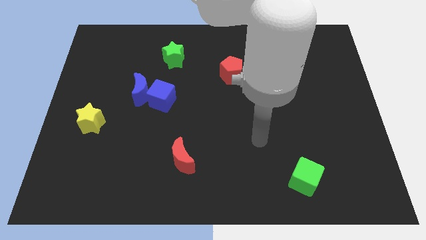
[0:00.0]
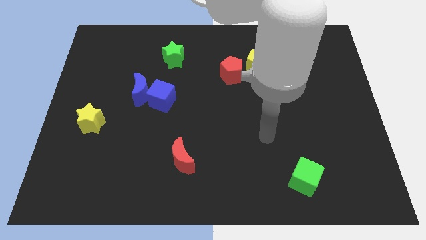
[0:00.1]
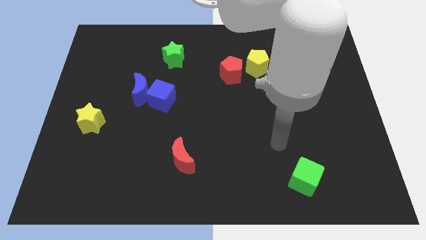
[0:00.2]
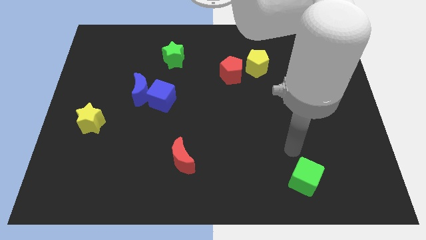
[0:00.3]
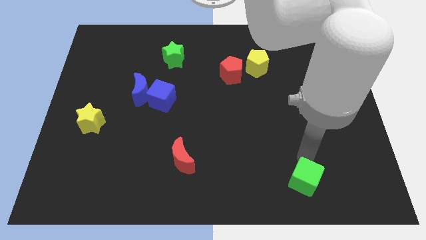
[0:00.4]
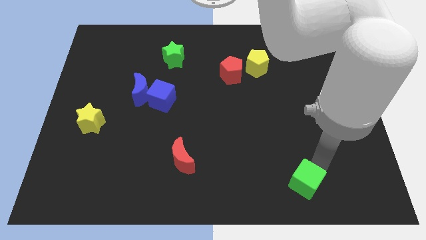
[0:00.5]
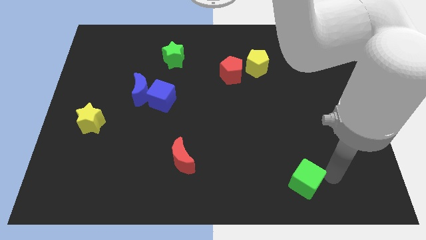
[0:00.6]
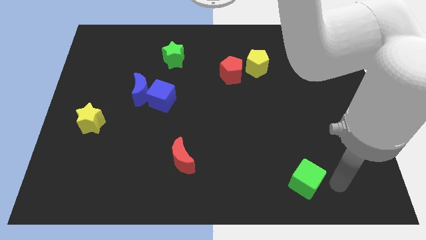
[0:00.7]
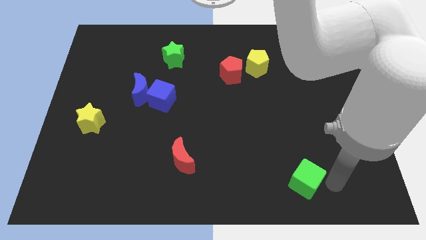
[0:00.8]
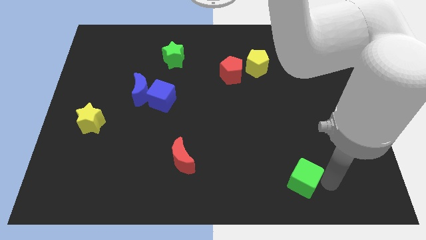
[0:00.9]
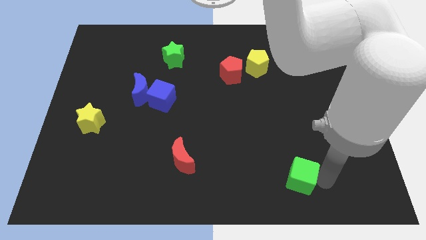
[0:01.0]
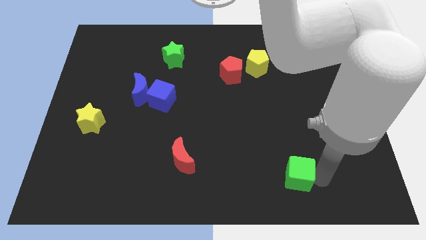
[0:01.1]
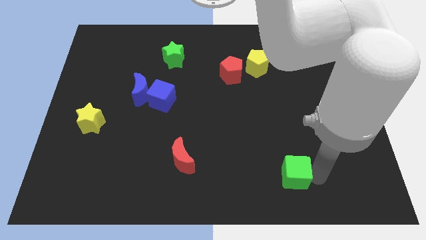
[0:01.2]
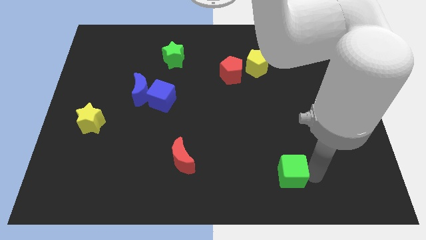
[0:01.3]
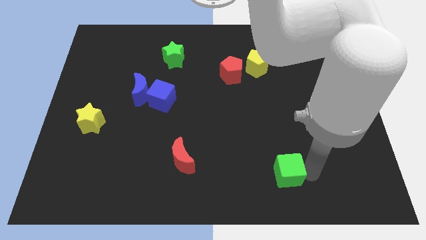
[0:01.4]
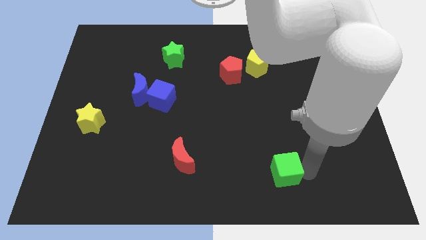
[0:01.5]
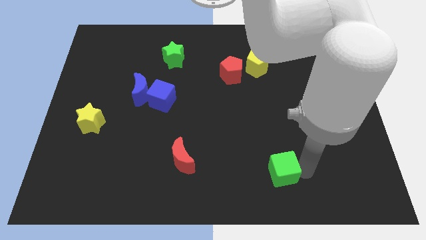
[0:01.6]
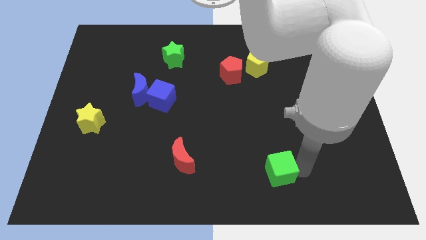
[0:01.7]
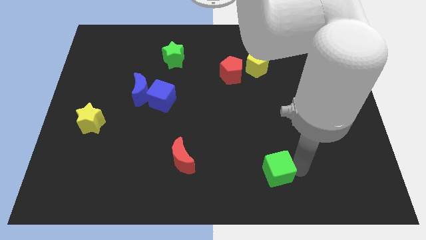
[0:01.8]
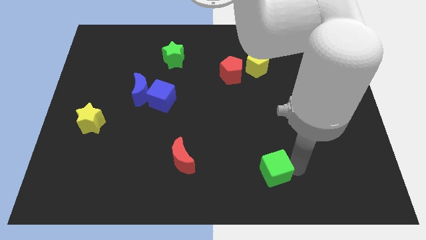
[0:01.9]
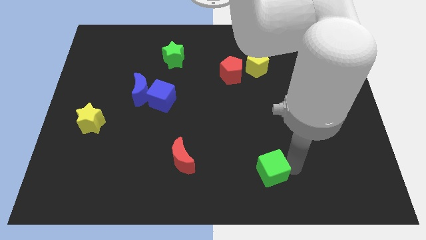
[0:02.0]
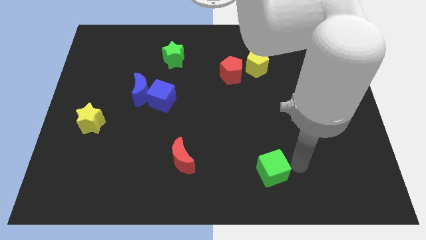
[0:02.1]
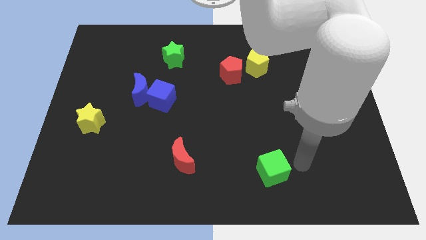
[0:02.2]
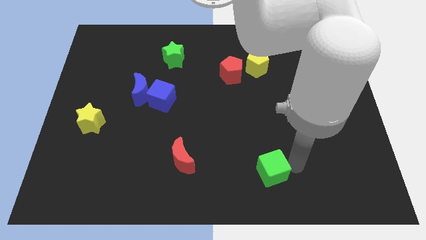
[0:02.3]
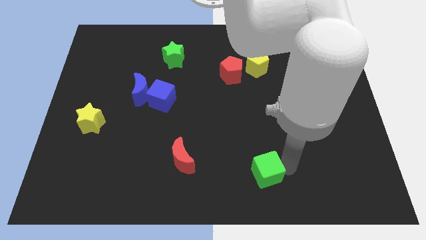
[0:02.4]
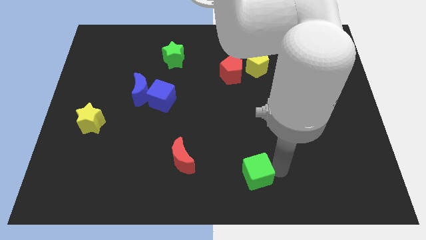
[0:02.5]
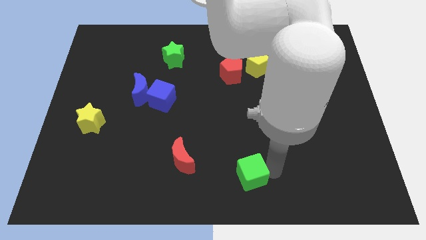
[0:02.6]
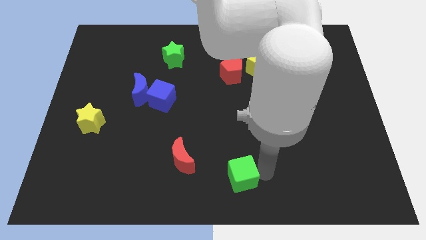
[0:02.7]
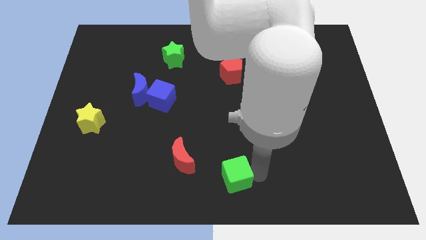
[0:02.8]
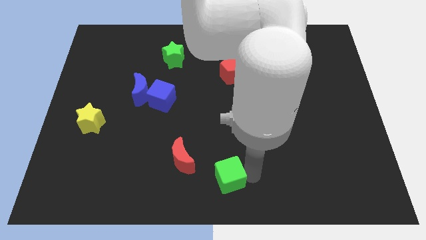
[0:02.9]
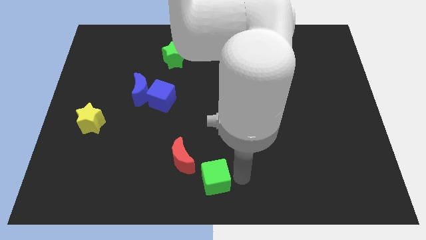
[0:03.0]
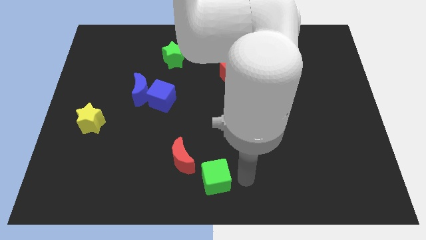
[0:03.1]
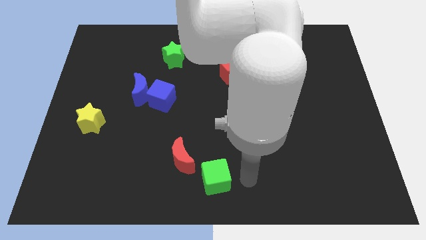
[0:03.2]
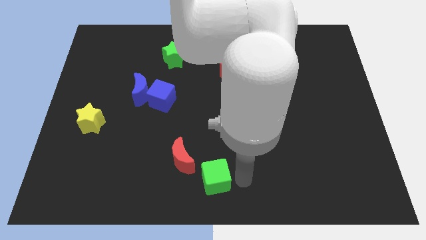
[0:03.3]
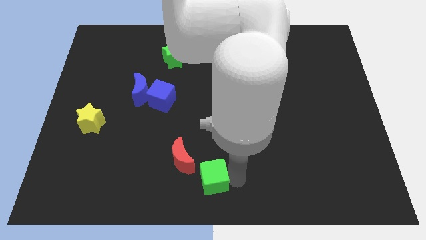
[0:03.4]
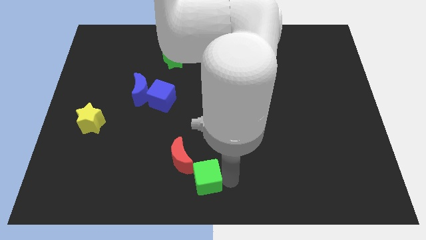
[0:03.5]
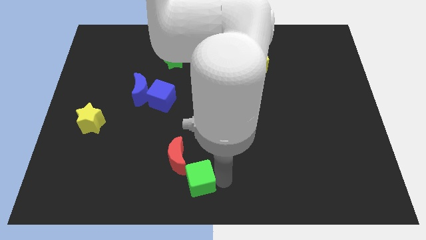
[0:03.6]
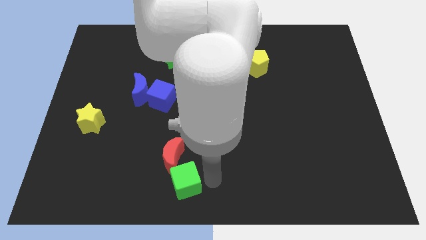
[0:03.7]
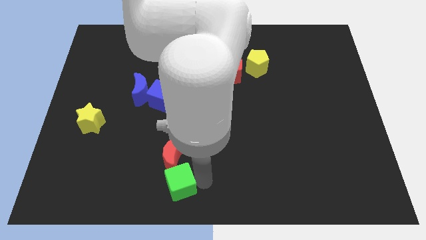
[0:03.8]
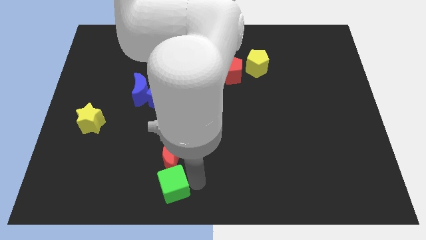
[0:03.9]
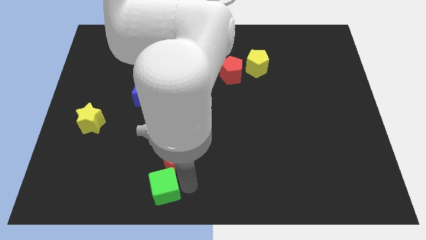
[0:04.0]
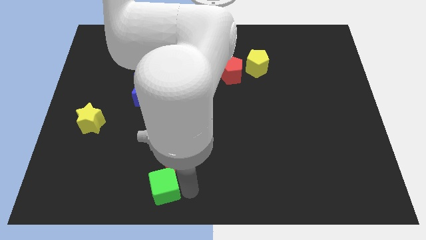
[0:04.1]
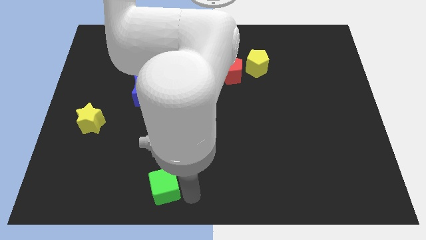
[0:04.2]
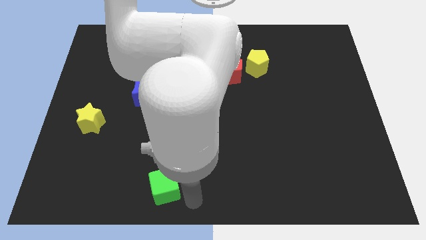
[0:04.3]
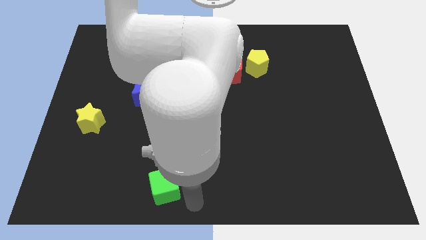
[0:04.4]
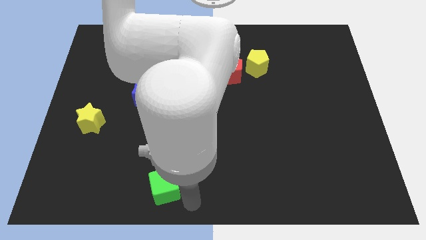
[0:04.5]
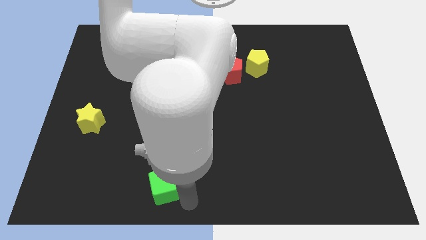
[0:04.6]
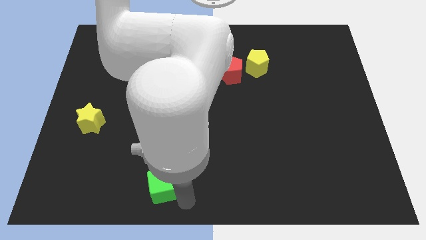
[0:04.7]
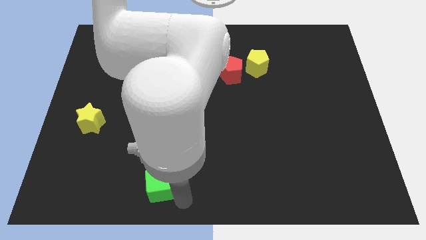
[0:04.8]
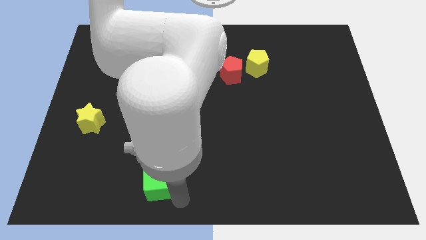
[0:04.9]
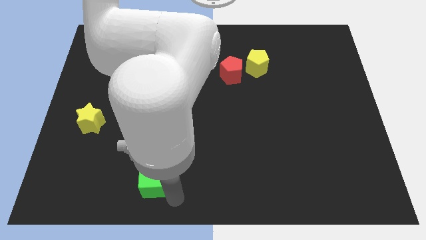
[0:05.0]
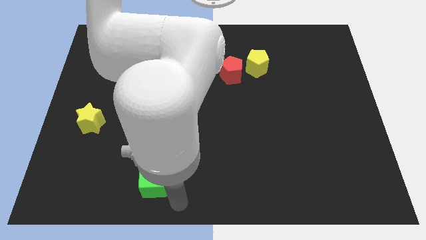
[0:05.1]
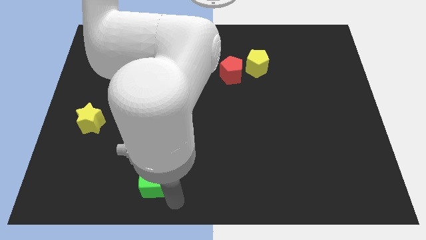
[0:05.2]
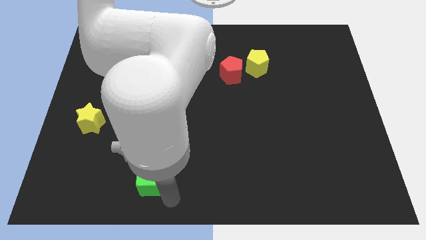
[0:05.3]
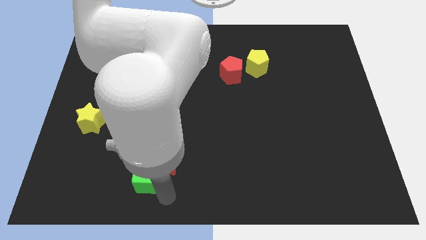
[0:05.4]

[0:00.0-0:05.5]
slide the green cube to the left of the red moon

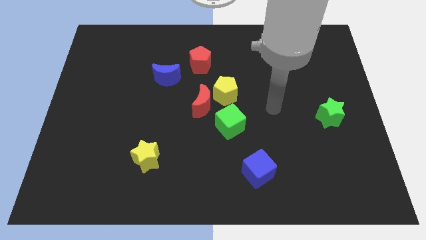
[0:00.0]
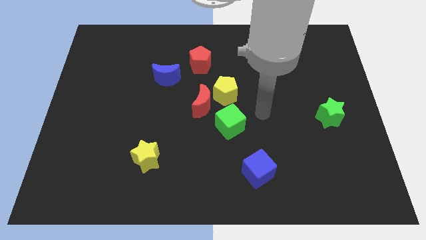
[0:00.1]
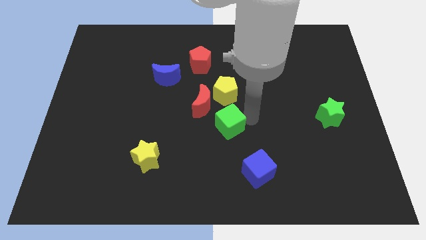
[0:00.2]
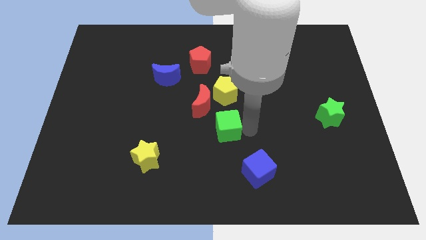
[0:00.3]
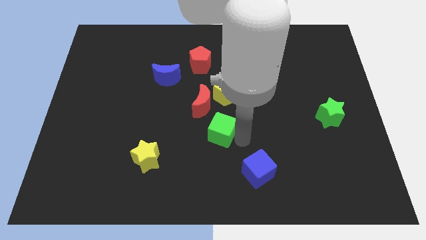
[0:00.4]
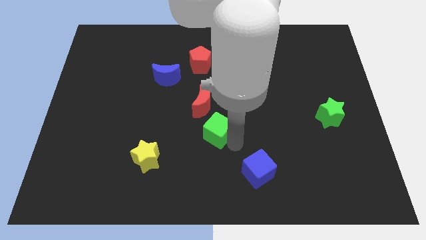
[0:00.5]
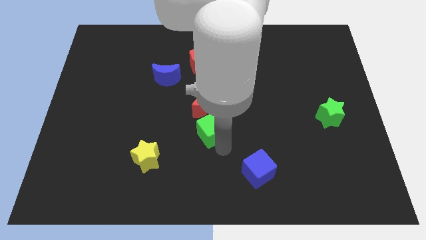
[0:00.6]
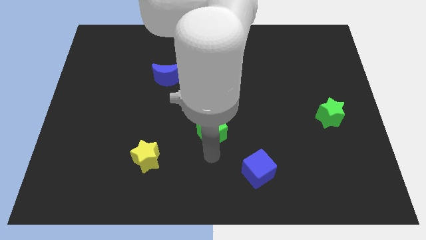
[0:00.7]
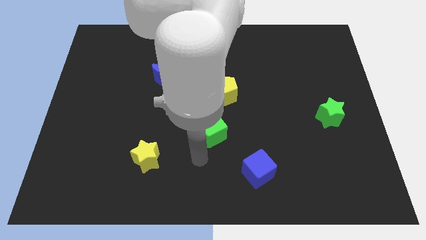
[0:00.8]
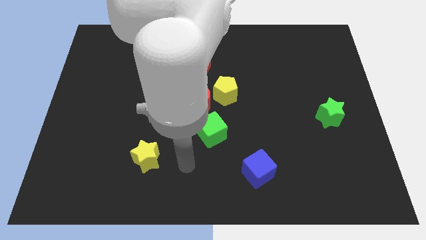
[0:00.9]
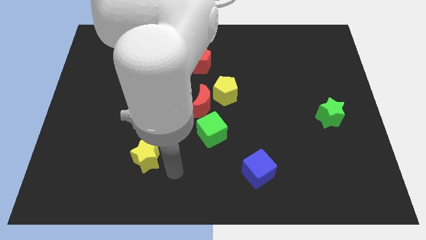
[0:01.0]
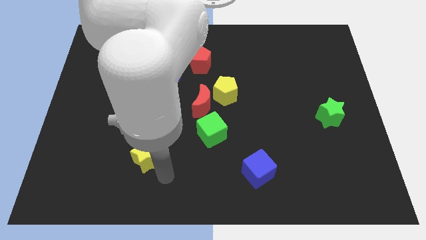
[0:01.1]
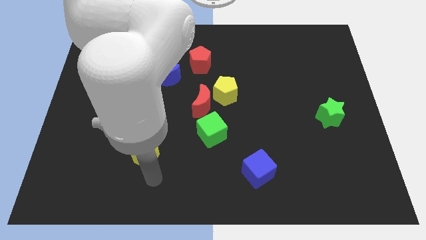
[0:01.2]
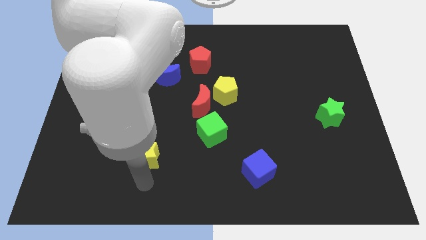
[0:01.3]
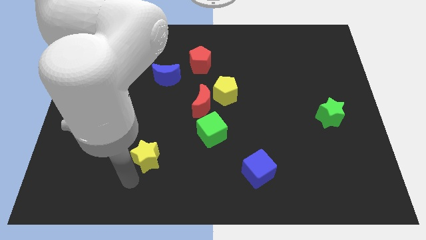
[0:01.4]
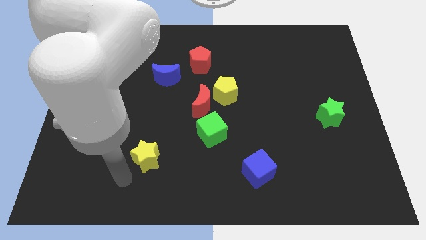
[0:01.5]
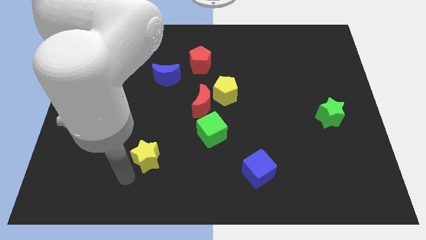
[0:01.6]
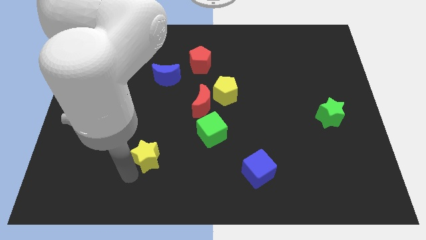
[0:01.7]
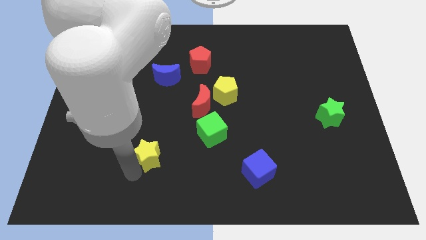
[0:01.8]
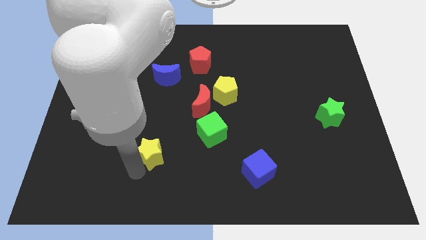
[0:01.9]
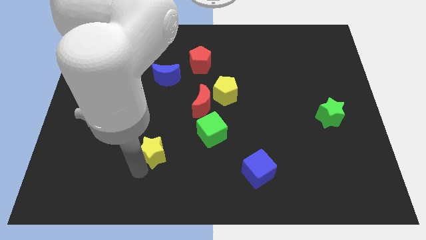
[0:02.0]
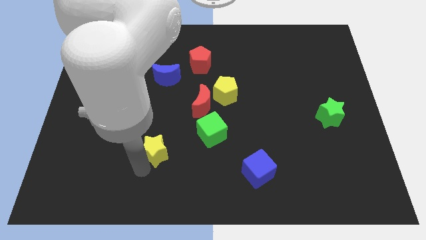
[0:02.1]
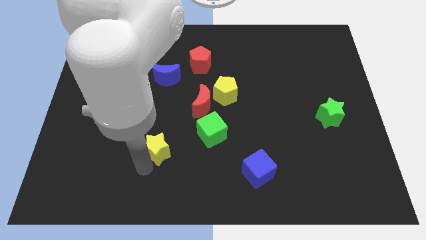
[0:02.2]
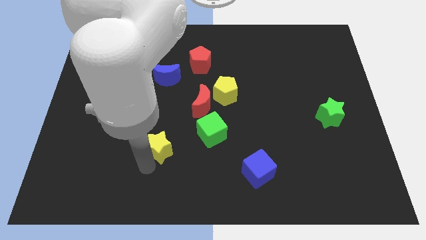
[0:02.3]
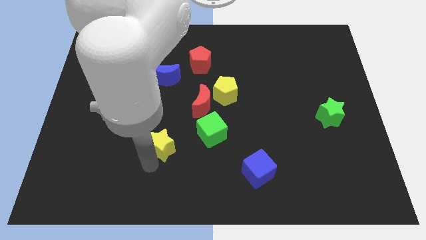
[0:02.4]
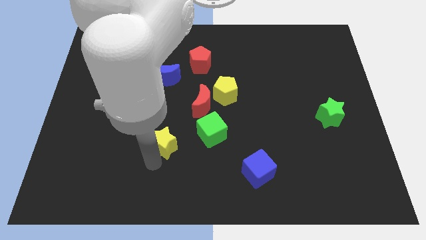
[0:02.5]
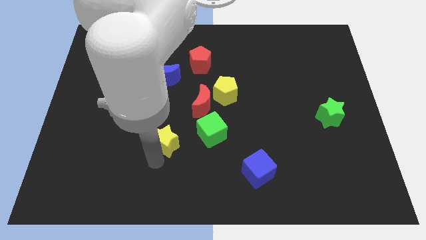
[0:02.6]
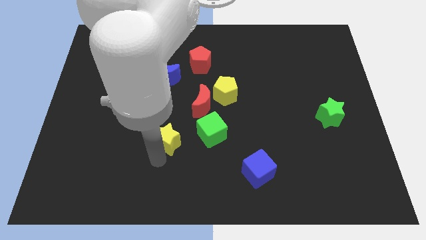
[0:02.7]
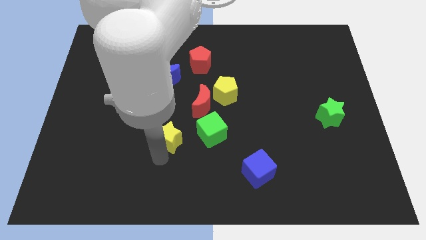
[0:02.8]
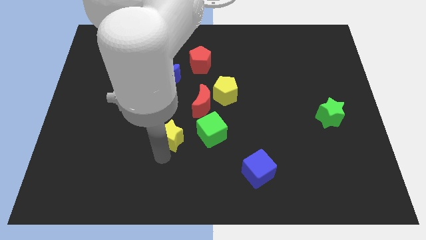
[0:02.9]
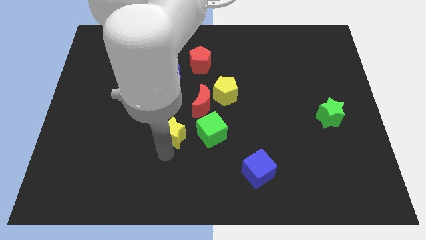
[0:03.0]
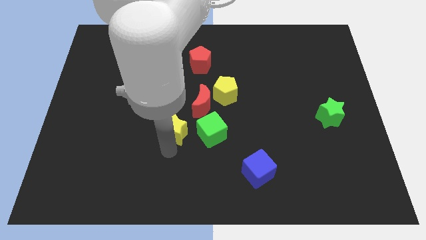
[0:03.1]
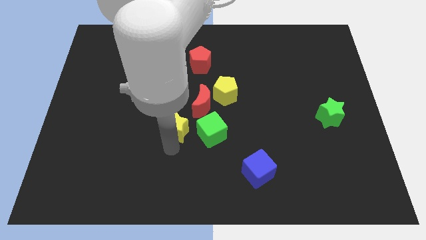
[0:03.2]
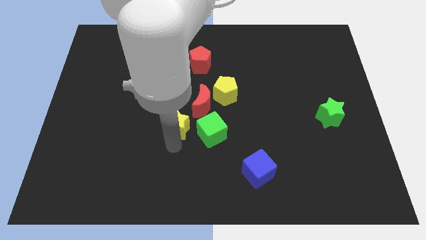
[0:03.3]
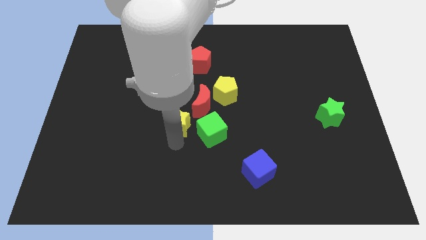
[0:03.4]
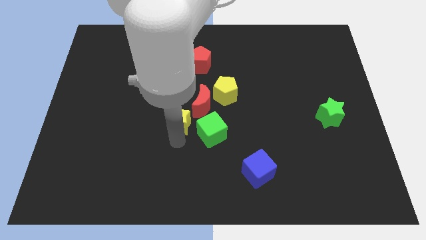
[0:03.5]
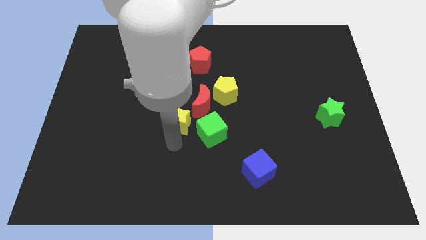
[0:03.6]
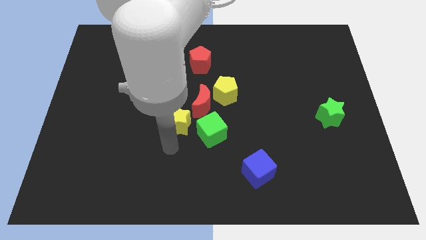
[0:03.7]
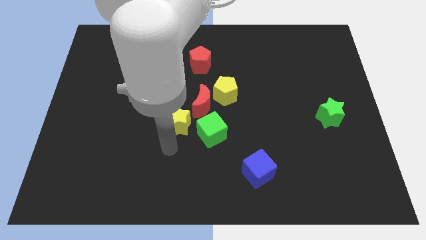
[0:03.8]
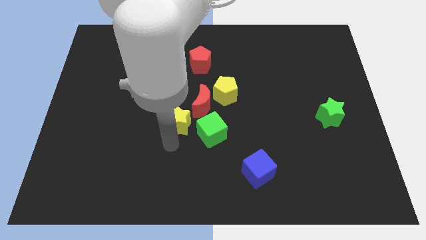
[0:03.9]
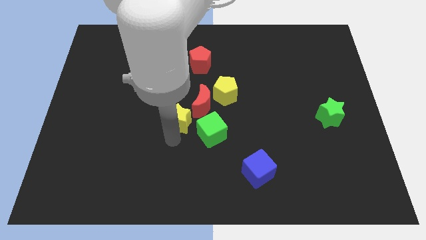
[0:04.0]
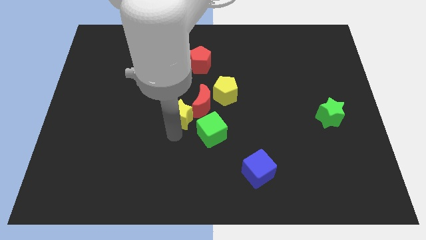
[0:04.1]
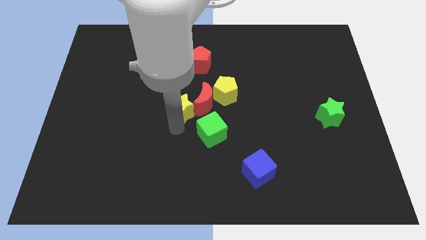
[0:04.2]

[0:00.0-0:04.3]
slide the yellow star to the bottom right of the blue moon
